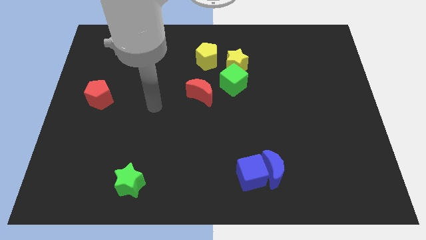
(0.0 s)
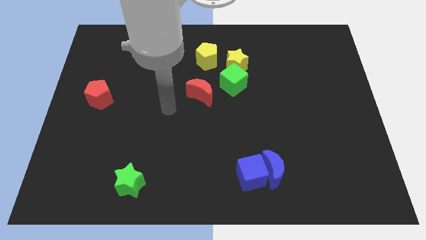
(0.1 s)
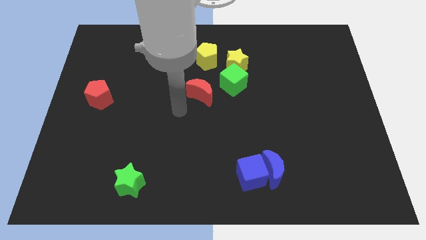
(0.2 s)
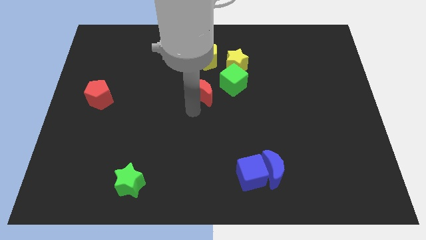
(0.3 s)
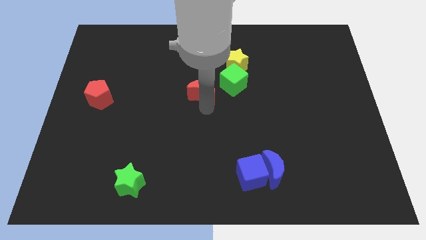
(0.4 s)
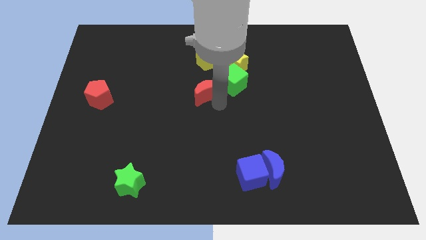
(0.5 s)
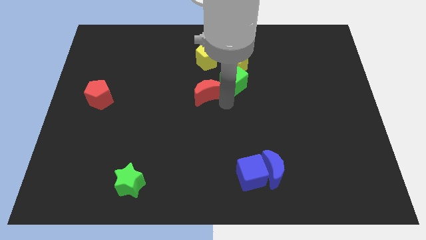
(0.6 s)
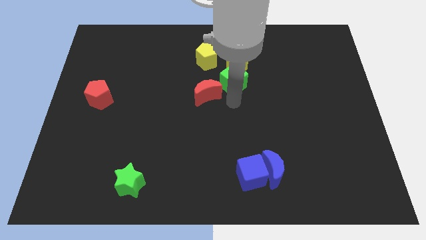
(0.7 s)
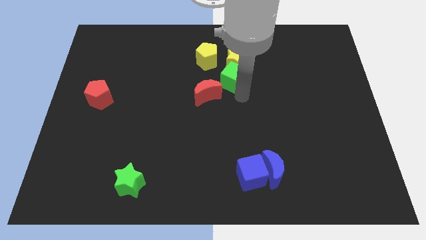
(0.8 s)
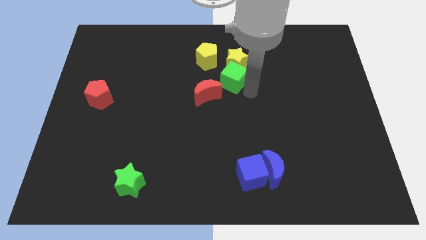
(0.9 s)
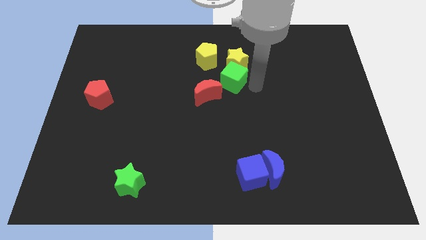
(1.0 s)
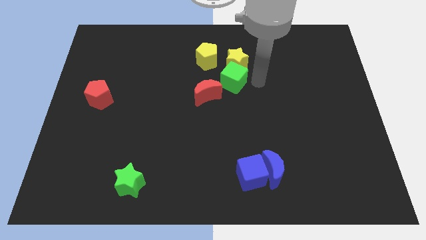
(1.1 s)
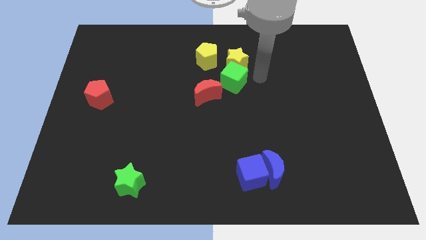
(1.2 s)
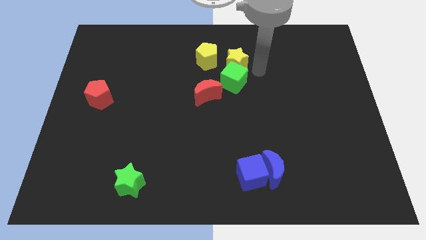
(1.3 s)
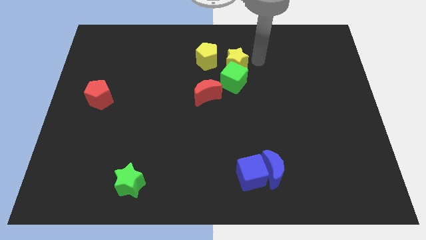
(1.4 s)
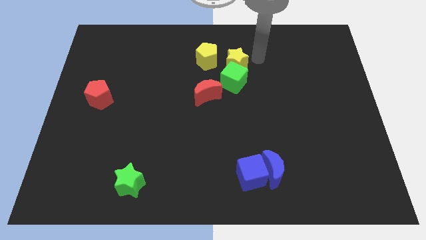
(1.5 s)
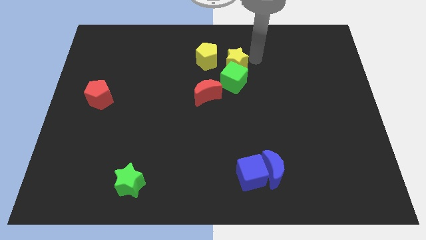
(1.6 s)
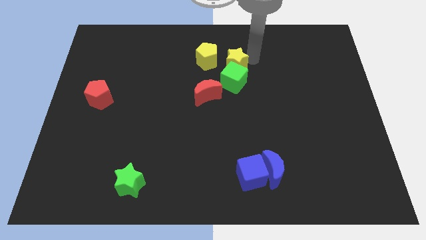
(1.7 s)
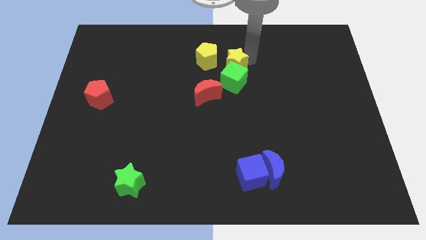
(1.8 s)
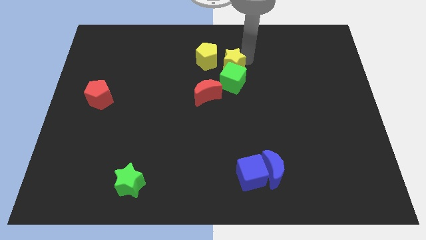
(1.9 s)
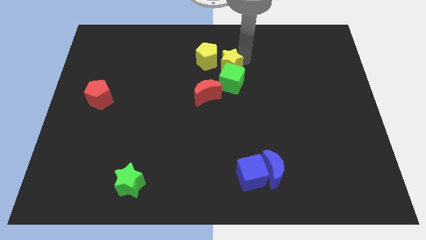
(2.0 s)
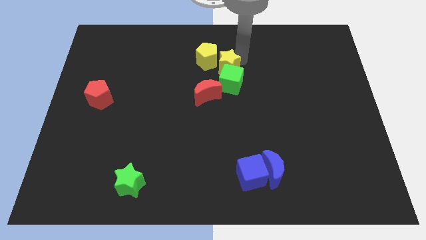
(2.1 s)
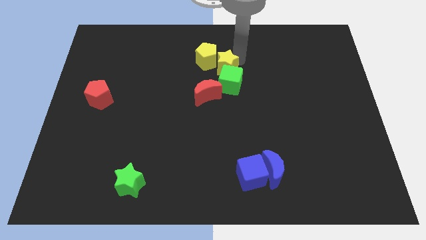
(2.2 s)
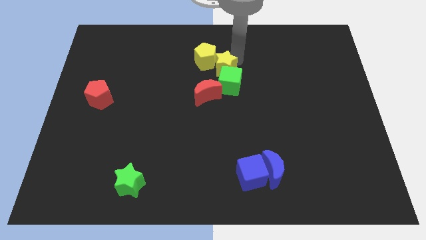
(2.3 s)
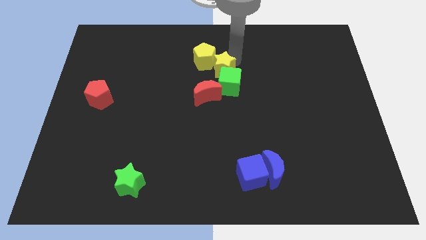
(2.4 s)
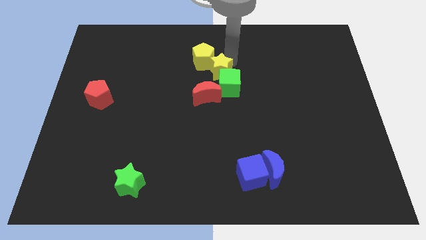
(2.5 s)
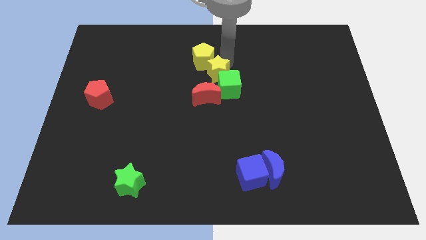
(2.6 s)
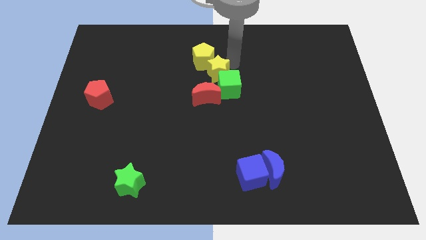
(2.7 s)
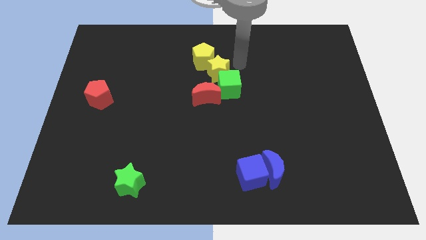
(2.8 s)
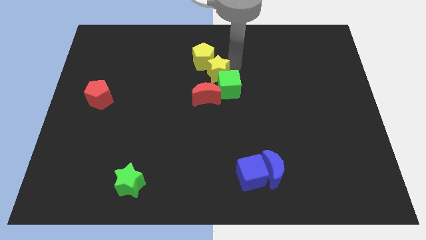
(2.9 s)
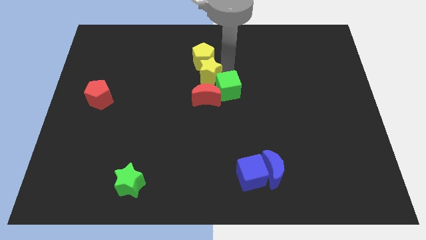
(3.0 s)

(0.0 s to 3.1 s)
move the yellow star a bit down and then to the left

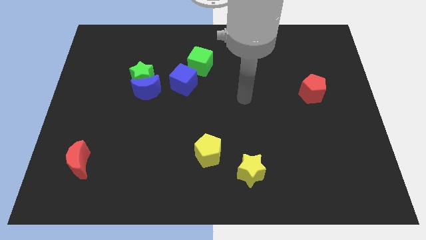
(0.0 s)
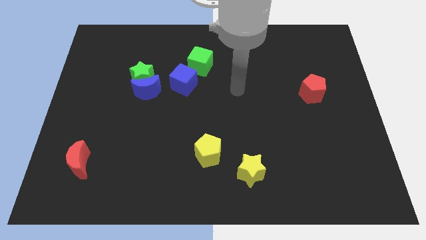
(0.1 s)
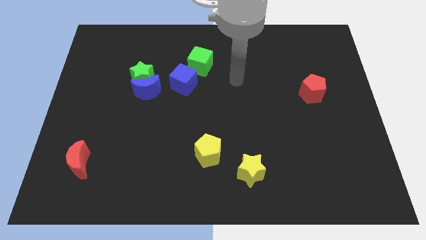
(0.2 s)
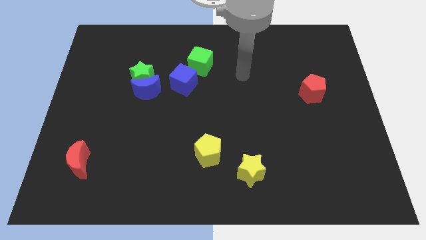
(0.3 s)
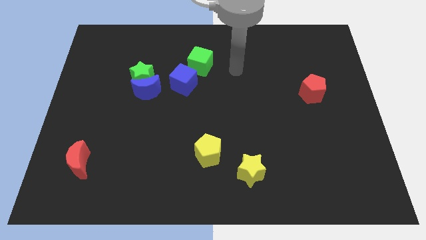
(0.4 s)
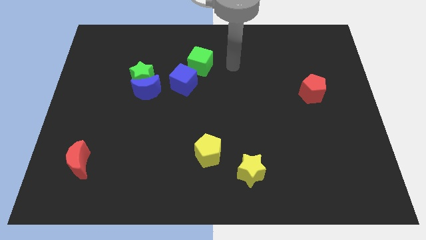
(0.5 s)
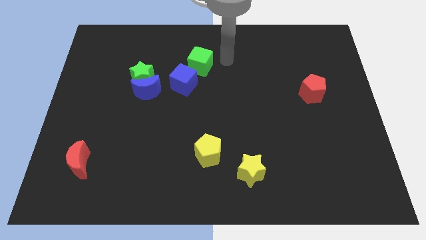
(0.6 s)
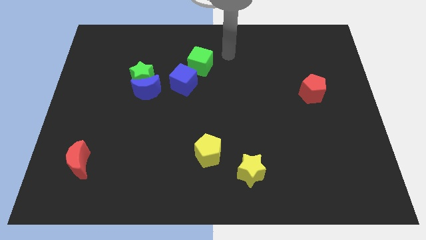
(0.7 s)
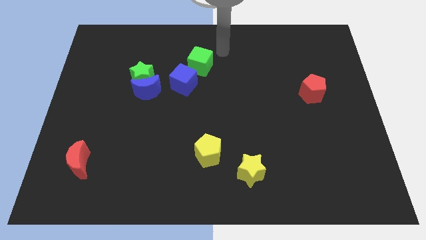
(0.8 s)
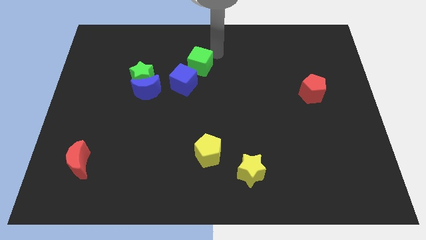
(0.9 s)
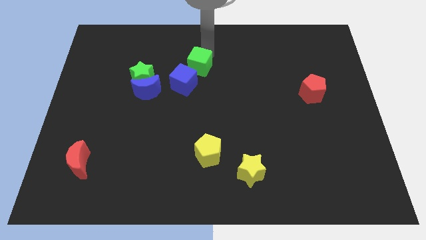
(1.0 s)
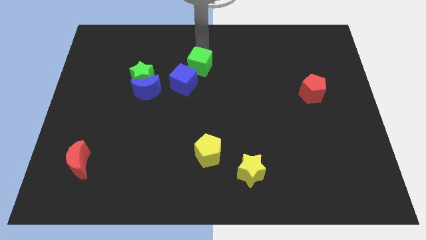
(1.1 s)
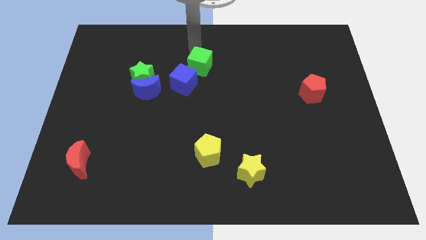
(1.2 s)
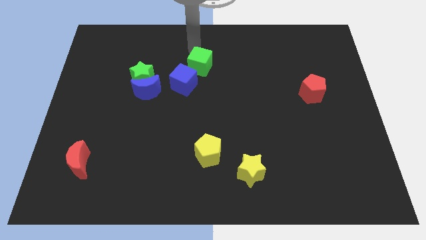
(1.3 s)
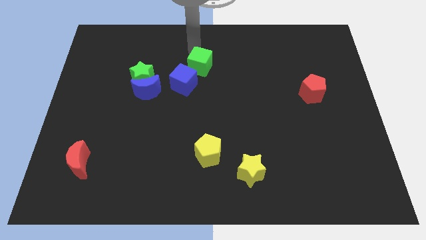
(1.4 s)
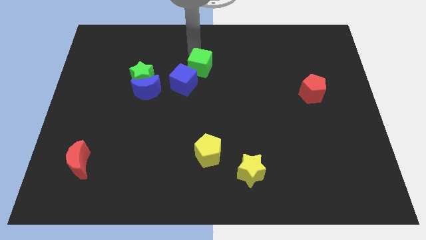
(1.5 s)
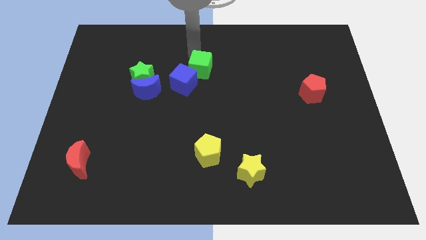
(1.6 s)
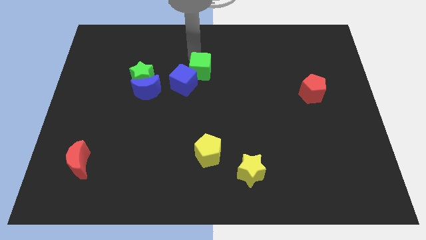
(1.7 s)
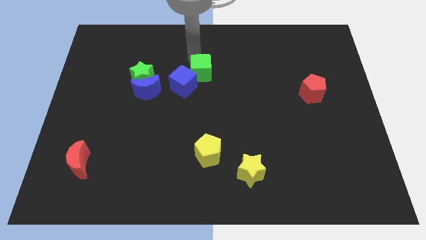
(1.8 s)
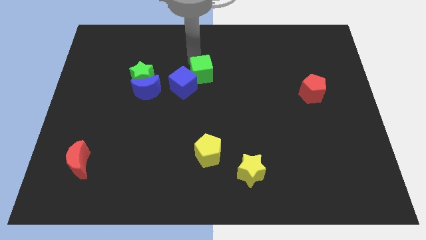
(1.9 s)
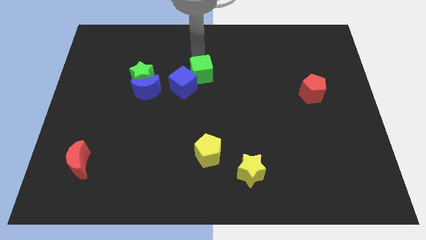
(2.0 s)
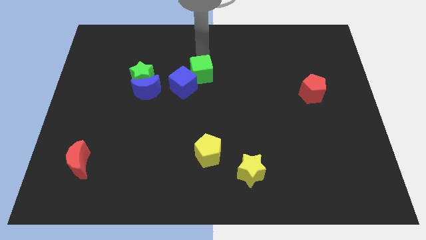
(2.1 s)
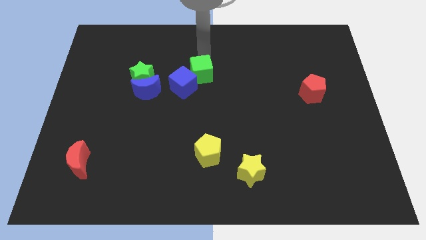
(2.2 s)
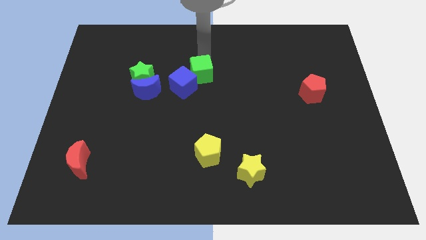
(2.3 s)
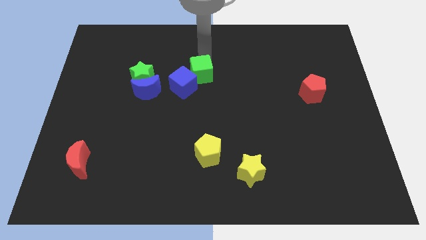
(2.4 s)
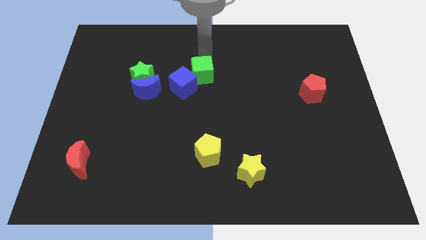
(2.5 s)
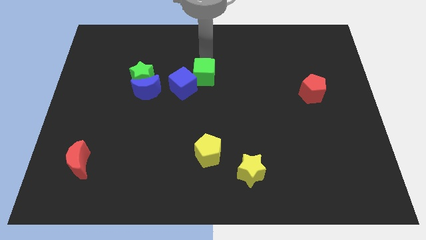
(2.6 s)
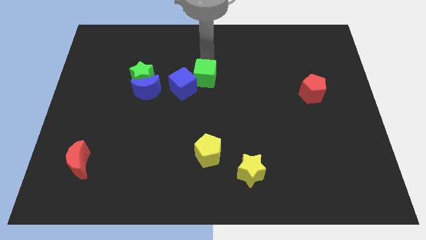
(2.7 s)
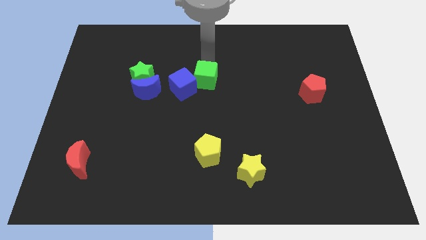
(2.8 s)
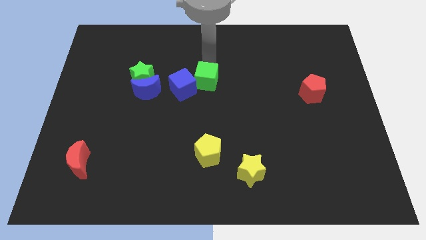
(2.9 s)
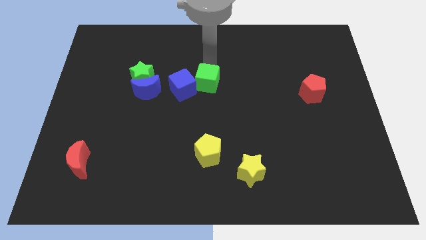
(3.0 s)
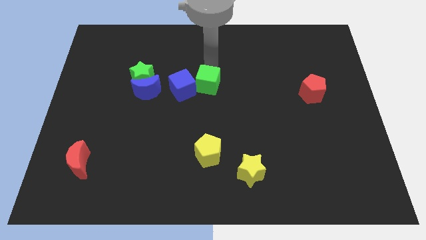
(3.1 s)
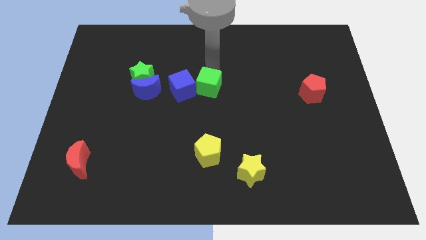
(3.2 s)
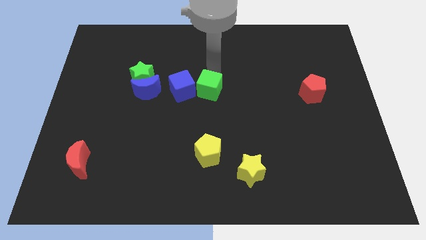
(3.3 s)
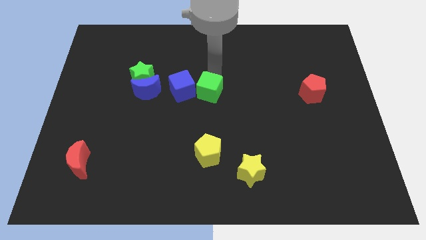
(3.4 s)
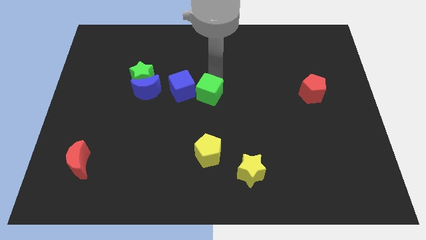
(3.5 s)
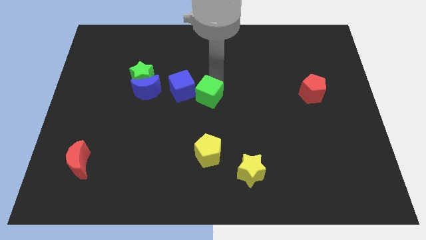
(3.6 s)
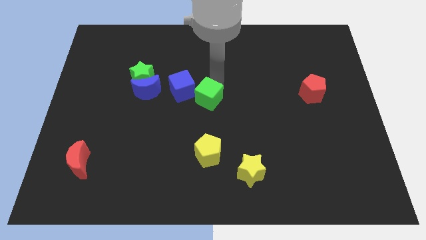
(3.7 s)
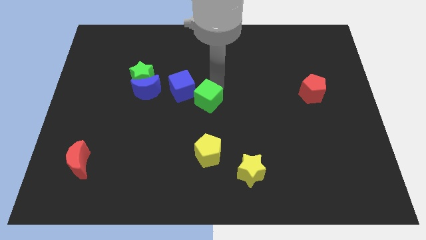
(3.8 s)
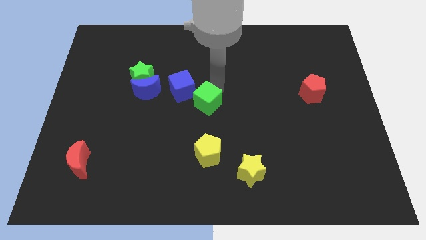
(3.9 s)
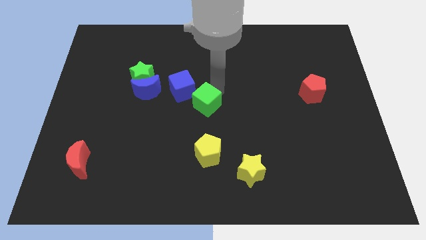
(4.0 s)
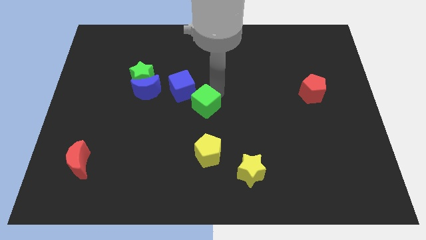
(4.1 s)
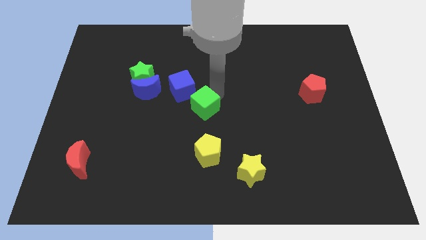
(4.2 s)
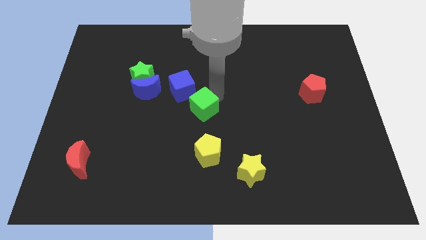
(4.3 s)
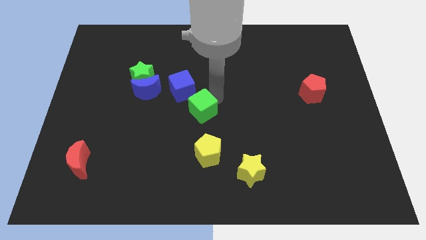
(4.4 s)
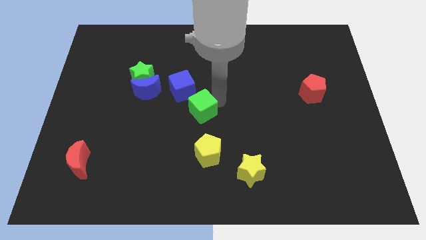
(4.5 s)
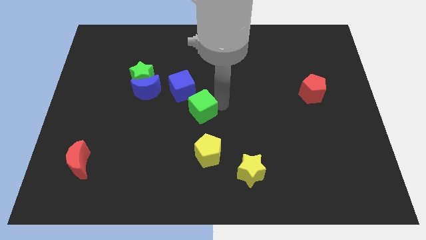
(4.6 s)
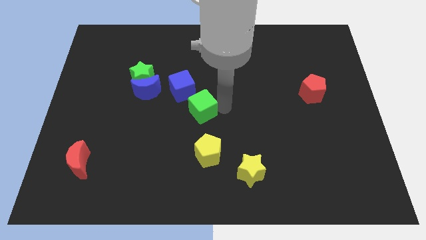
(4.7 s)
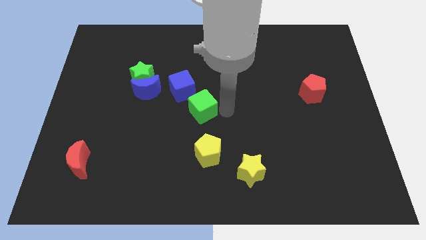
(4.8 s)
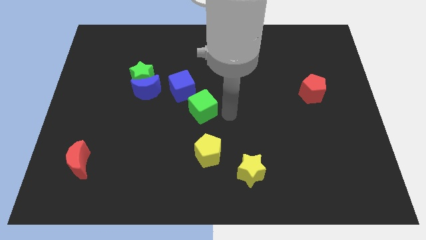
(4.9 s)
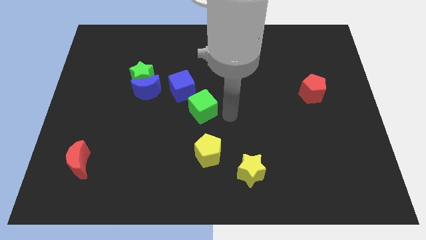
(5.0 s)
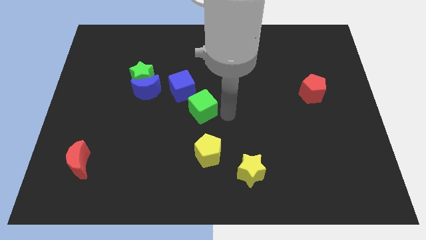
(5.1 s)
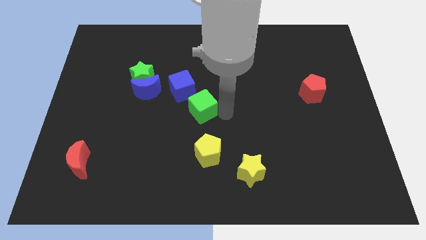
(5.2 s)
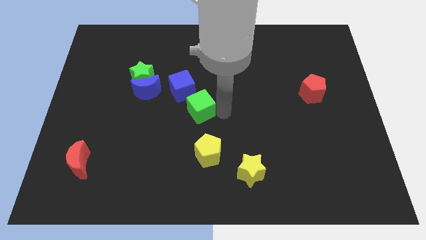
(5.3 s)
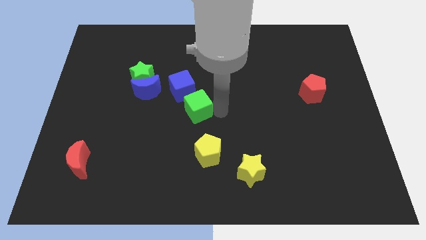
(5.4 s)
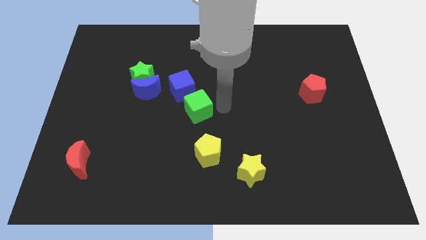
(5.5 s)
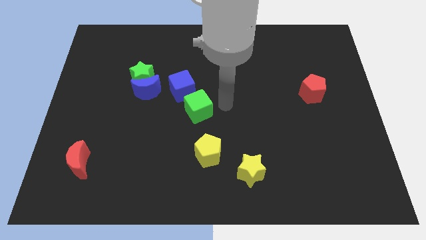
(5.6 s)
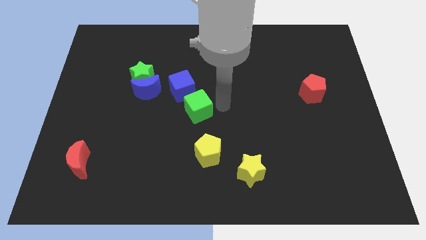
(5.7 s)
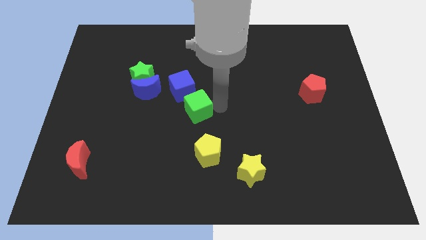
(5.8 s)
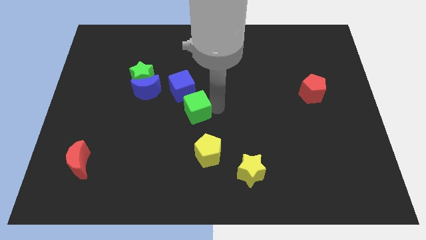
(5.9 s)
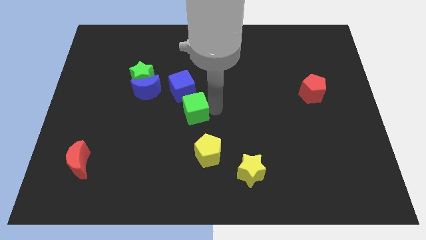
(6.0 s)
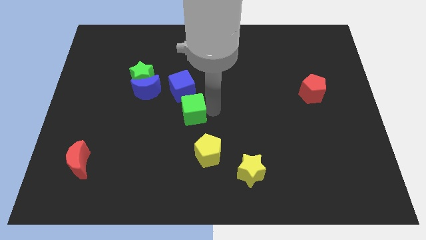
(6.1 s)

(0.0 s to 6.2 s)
slightly move the green cube down and then to the left
